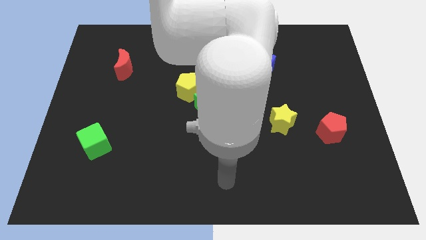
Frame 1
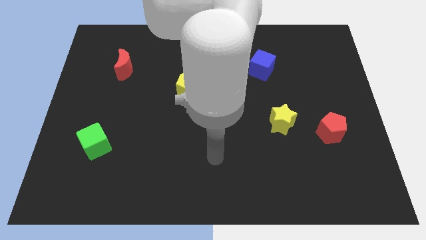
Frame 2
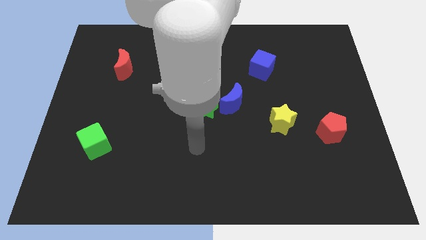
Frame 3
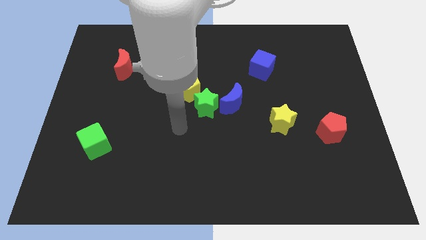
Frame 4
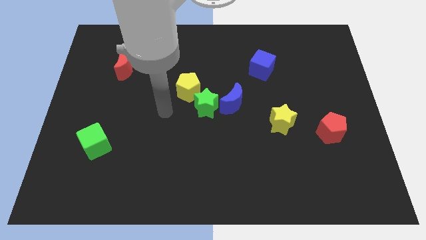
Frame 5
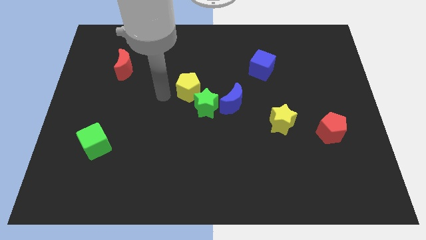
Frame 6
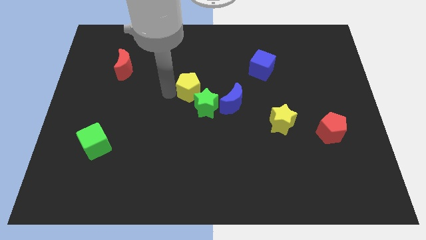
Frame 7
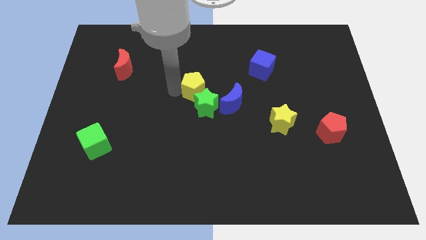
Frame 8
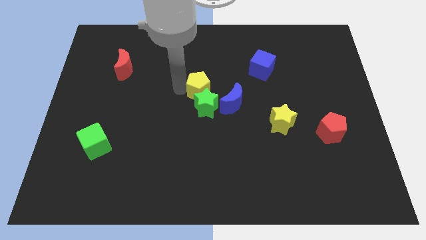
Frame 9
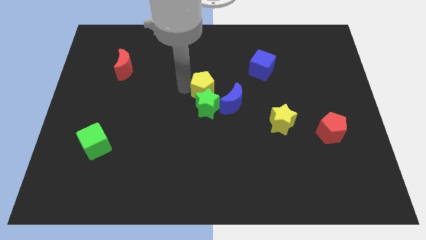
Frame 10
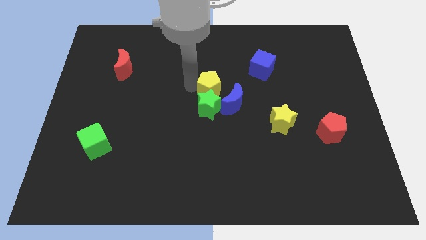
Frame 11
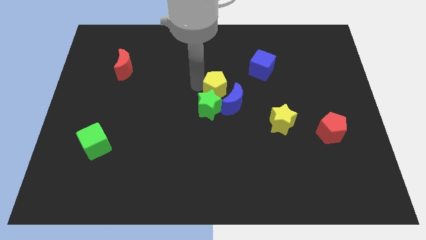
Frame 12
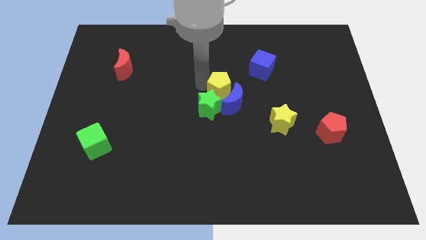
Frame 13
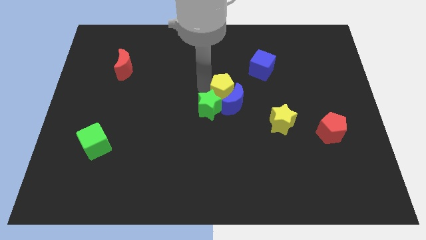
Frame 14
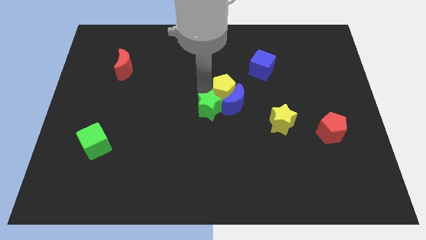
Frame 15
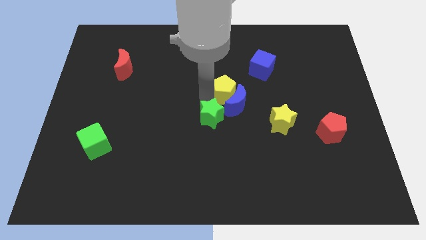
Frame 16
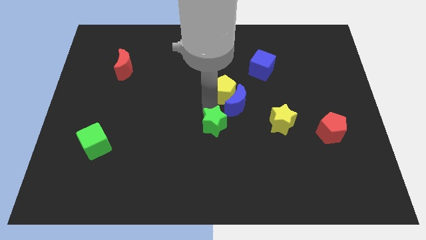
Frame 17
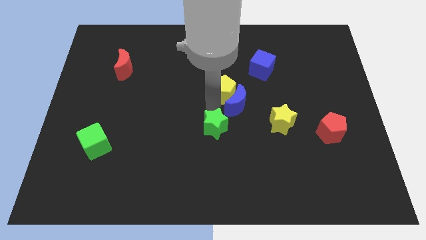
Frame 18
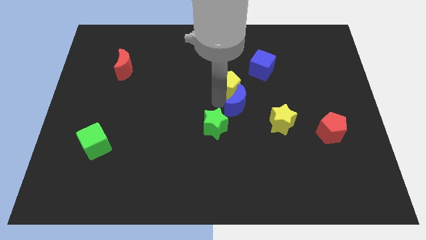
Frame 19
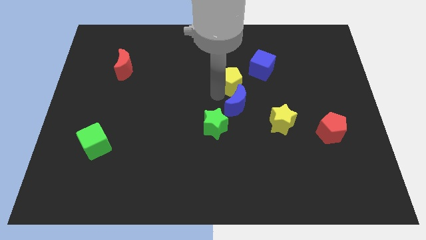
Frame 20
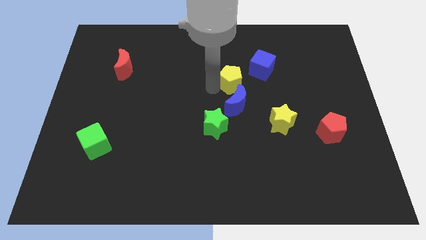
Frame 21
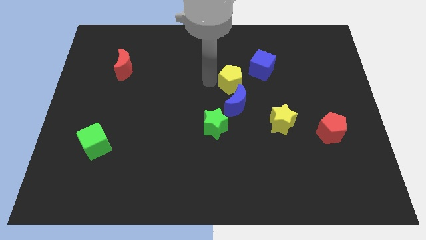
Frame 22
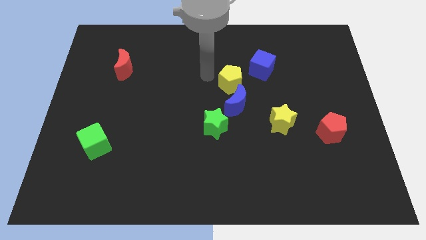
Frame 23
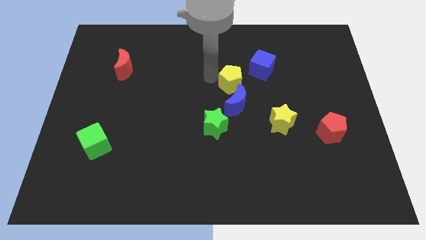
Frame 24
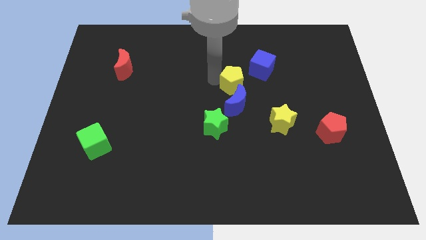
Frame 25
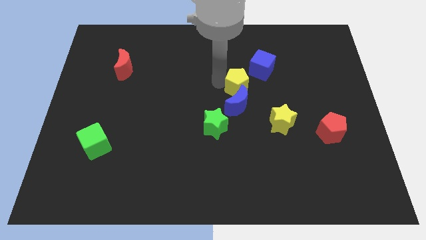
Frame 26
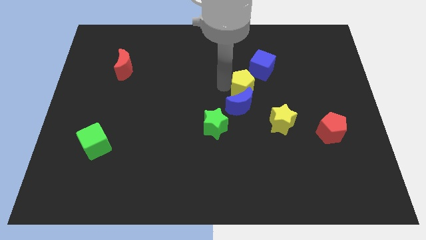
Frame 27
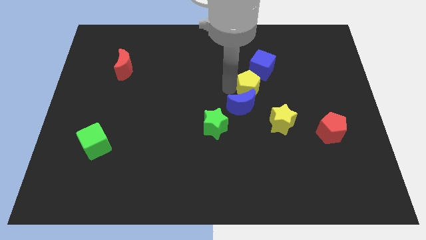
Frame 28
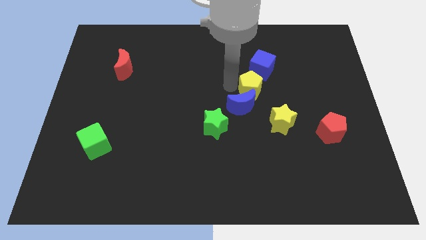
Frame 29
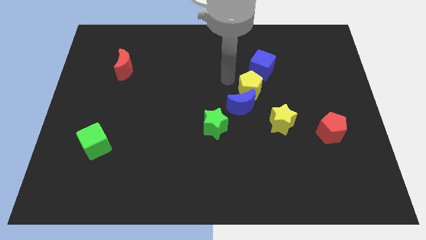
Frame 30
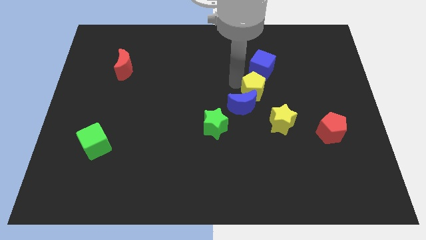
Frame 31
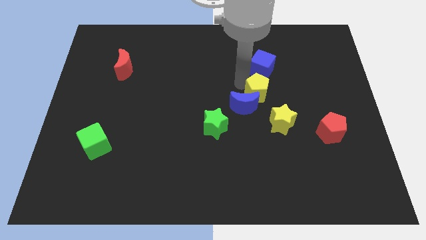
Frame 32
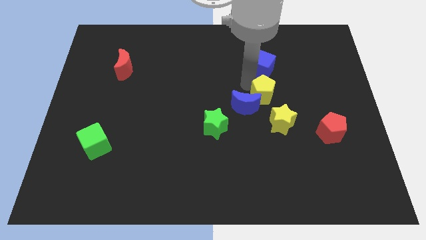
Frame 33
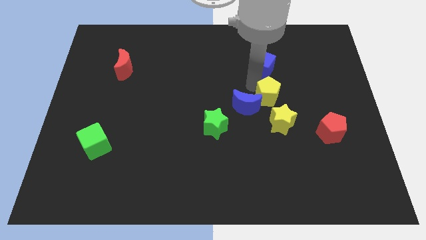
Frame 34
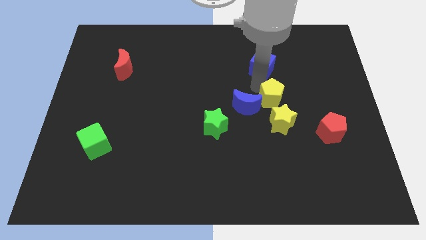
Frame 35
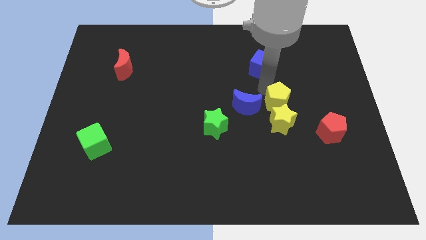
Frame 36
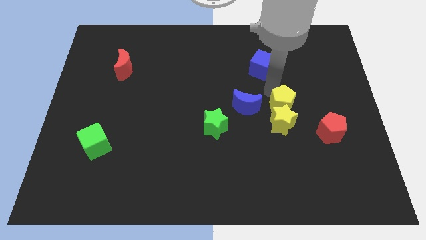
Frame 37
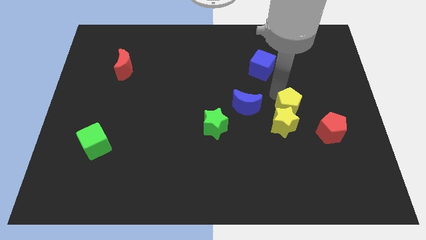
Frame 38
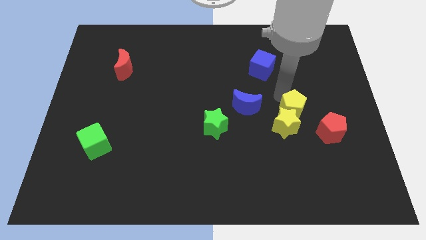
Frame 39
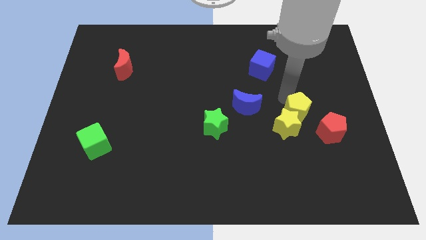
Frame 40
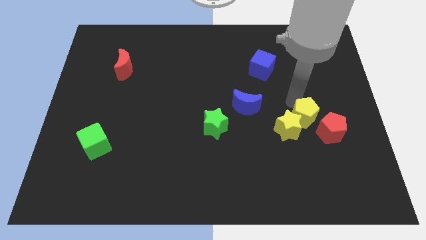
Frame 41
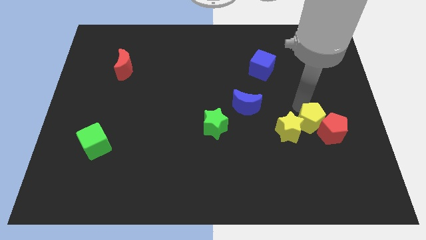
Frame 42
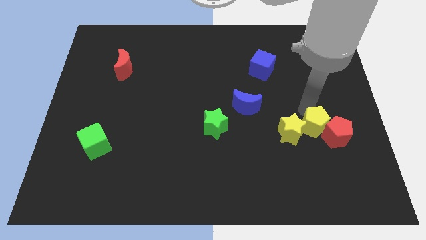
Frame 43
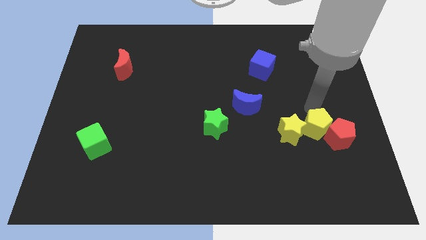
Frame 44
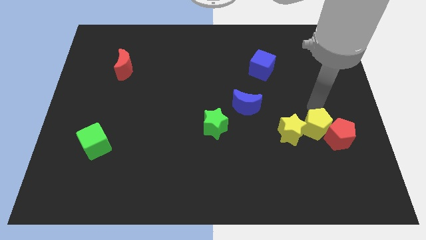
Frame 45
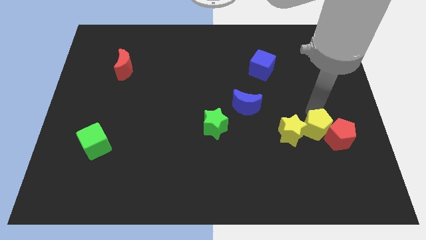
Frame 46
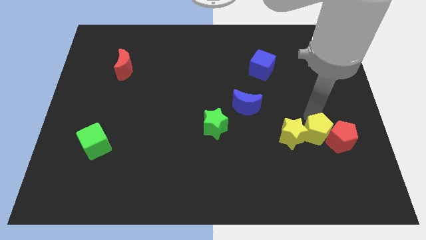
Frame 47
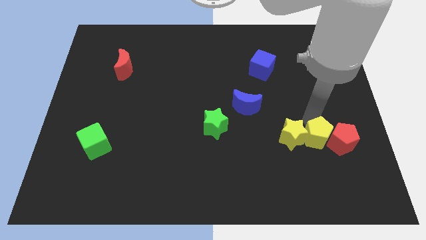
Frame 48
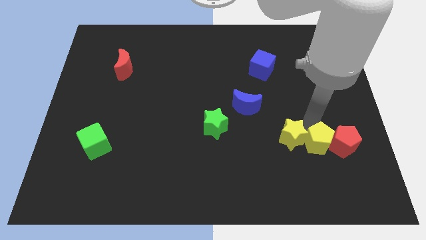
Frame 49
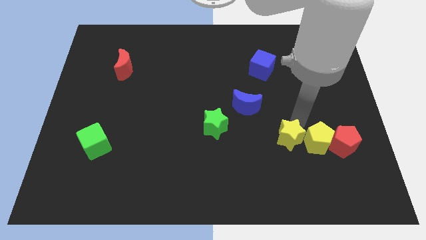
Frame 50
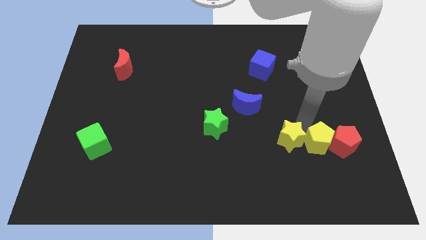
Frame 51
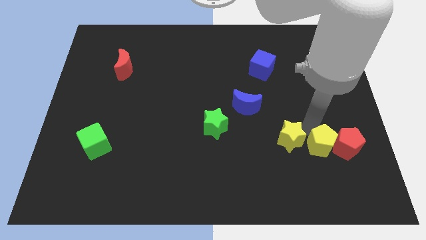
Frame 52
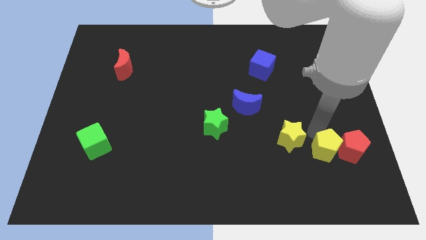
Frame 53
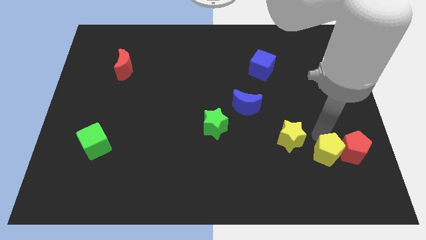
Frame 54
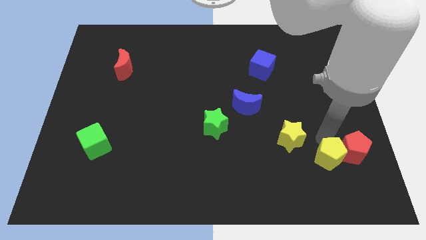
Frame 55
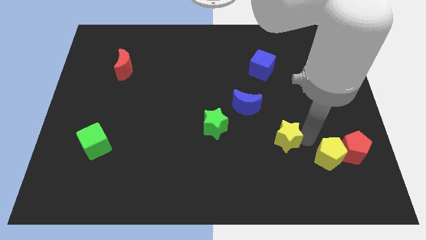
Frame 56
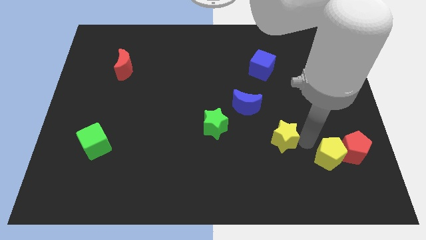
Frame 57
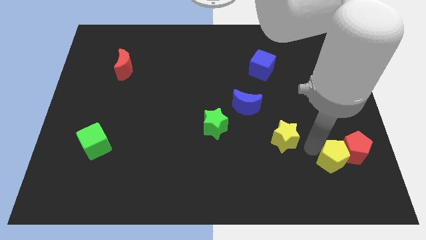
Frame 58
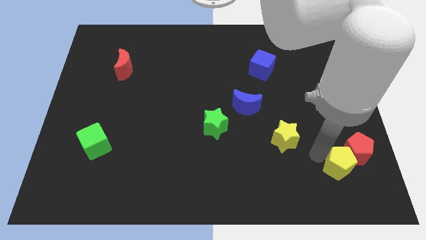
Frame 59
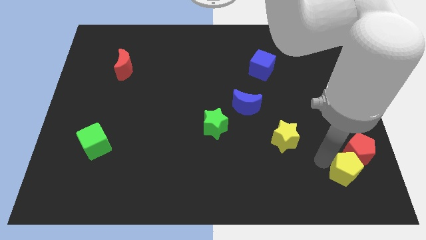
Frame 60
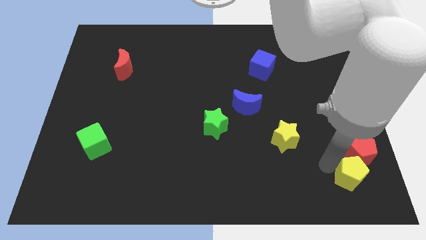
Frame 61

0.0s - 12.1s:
put the yellow pentagon to the bottom right of the board
